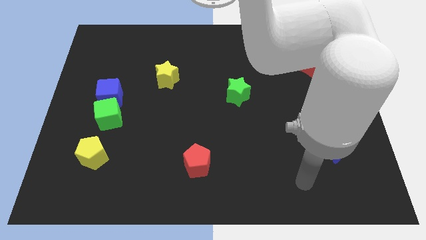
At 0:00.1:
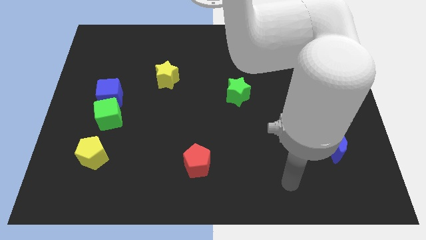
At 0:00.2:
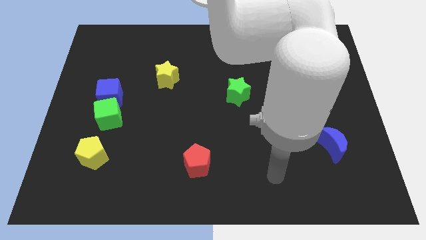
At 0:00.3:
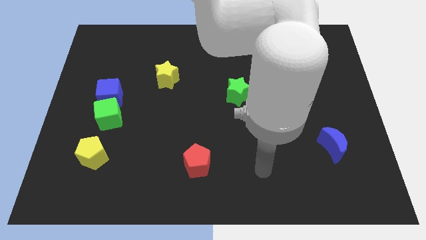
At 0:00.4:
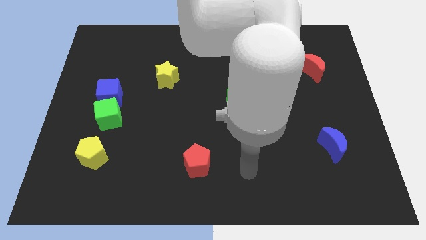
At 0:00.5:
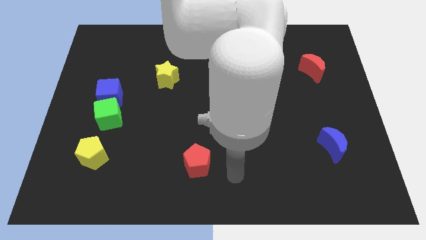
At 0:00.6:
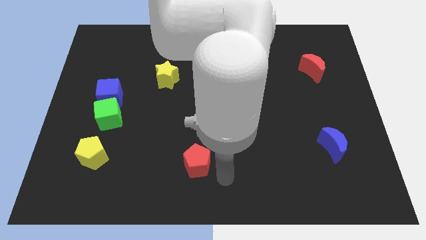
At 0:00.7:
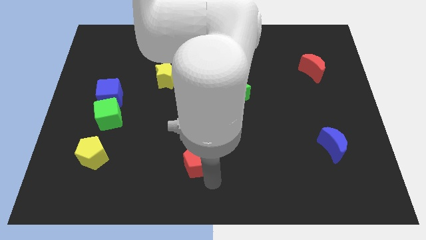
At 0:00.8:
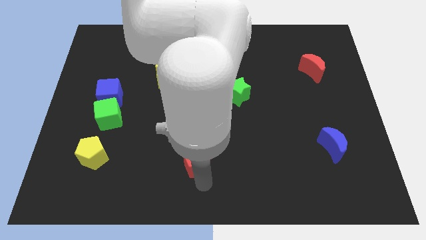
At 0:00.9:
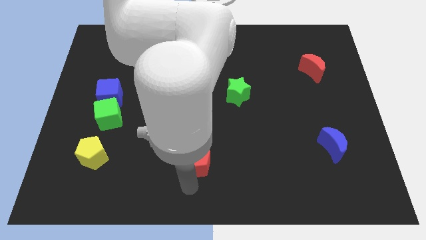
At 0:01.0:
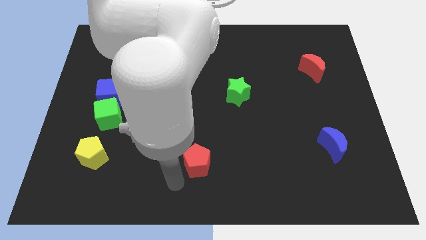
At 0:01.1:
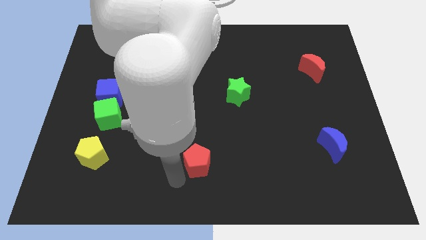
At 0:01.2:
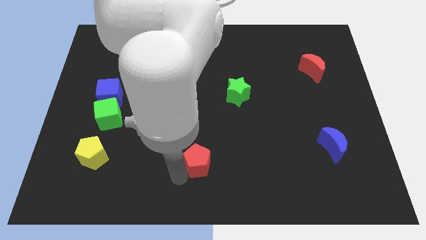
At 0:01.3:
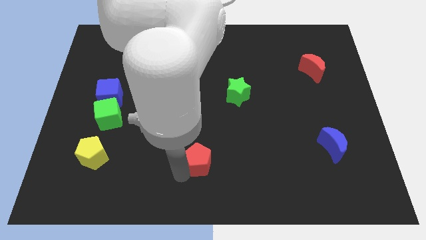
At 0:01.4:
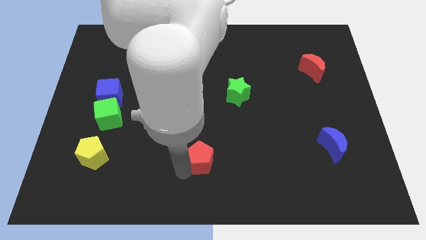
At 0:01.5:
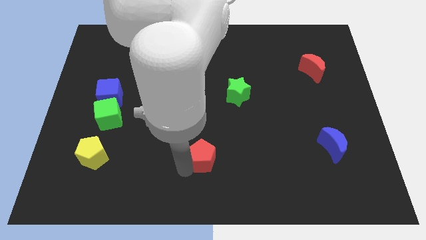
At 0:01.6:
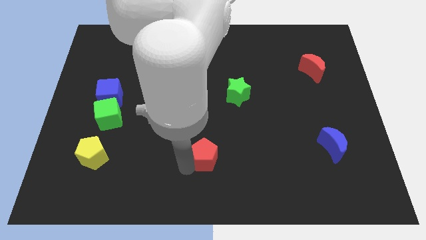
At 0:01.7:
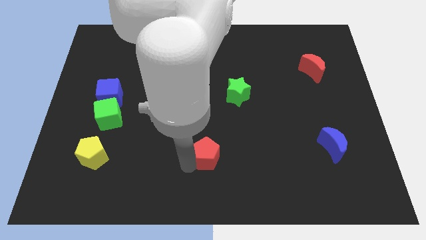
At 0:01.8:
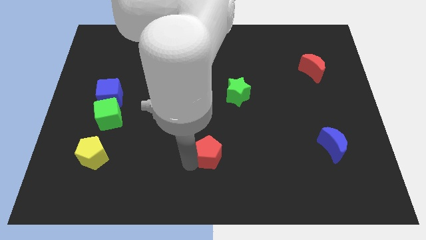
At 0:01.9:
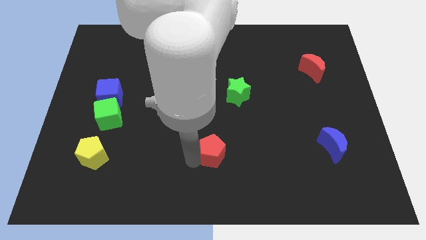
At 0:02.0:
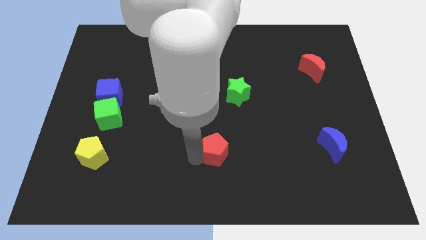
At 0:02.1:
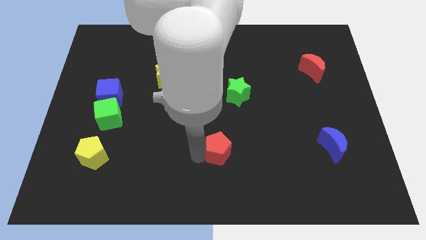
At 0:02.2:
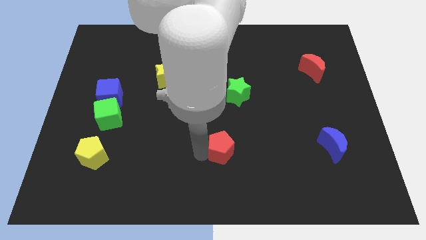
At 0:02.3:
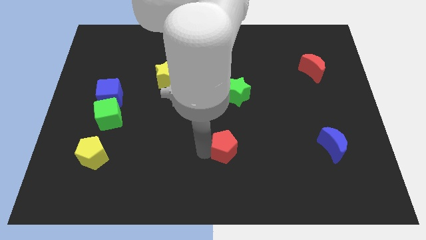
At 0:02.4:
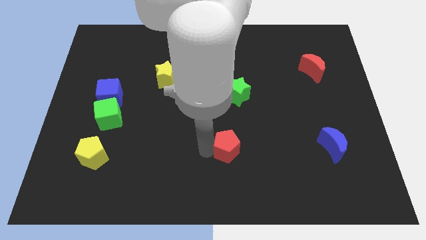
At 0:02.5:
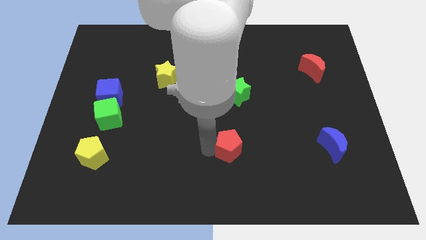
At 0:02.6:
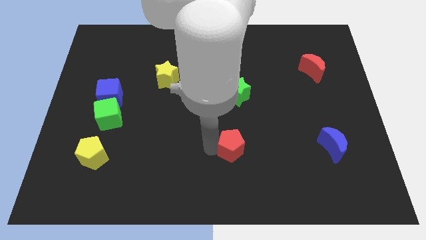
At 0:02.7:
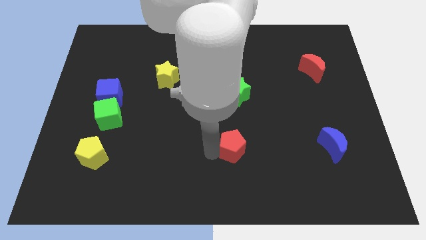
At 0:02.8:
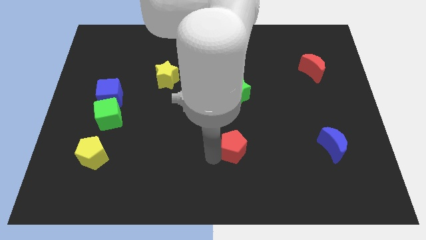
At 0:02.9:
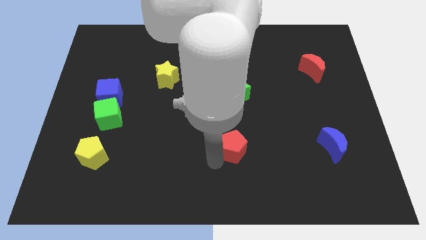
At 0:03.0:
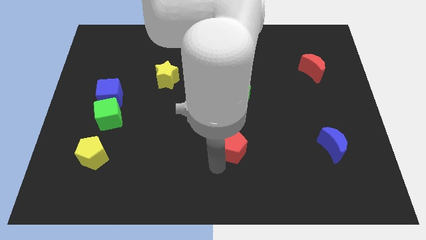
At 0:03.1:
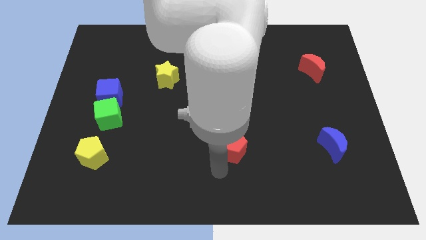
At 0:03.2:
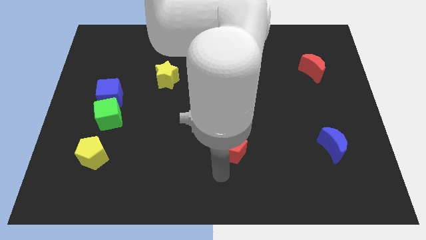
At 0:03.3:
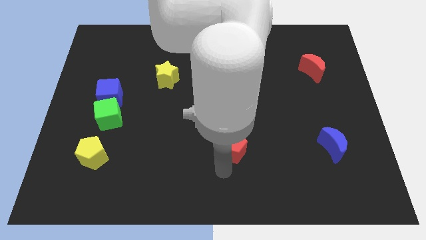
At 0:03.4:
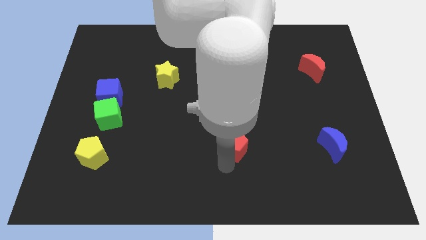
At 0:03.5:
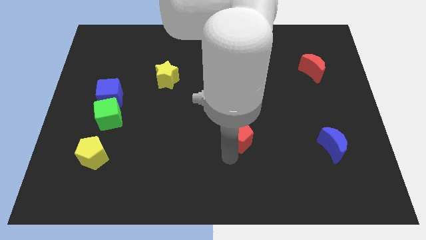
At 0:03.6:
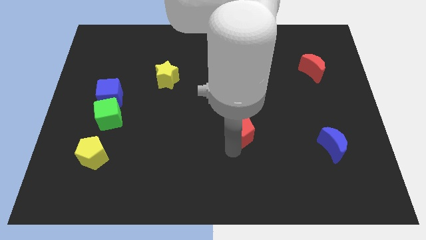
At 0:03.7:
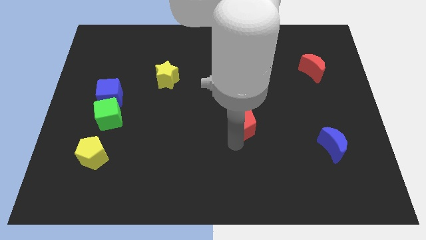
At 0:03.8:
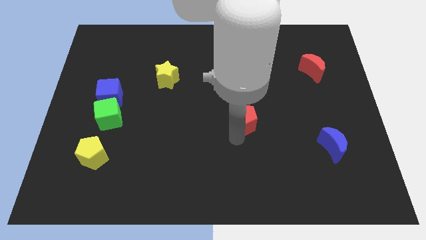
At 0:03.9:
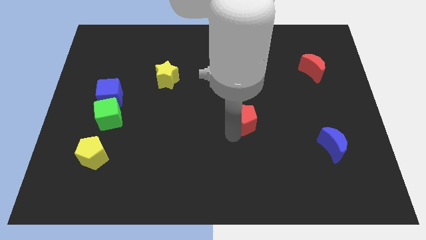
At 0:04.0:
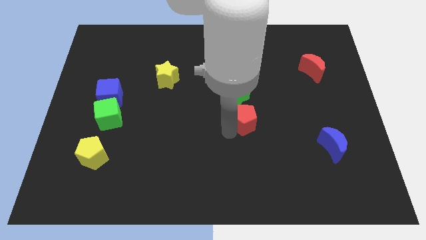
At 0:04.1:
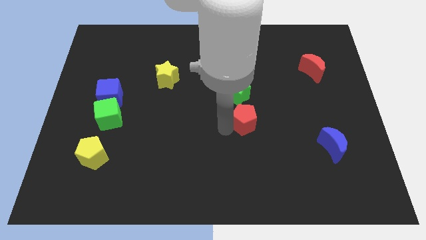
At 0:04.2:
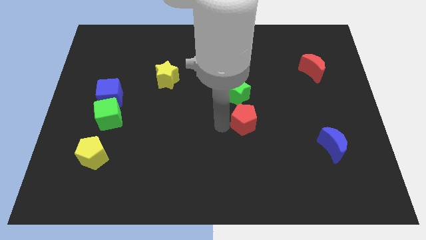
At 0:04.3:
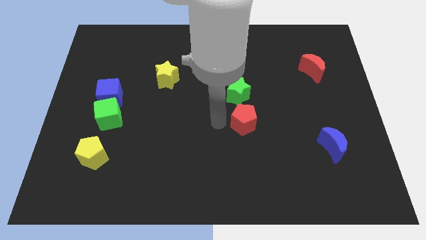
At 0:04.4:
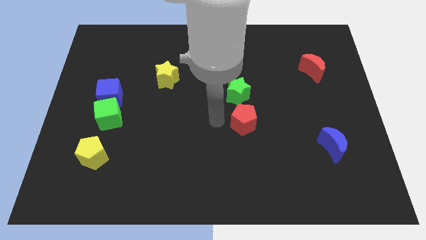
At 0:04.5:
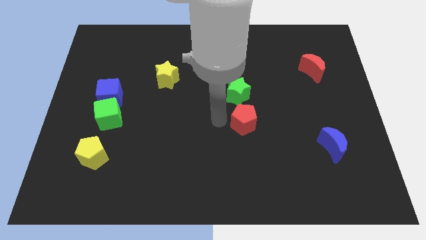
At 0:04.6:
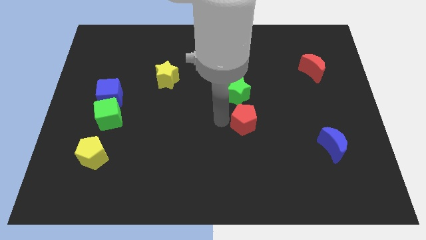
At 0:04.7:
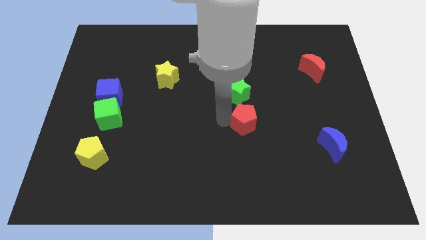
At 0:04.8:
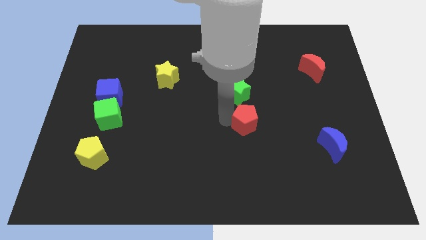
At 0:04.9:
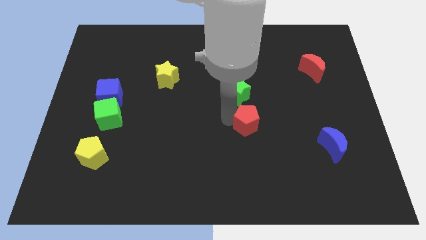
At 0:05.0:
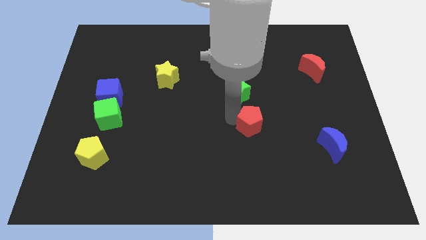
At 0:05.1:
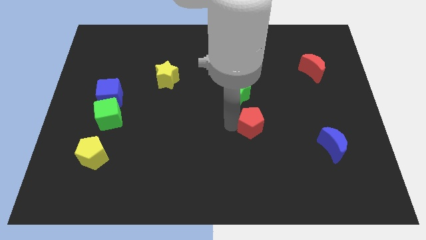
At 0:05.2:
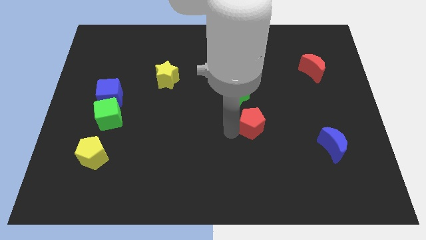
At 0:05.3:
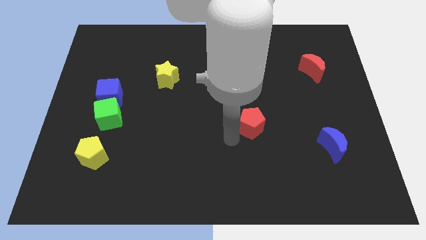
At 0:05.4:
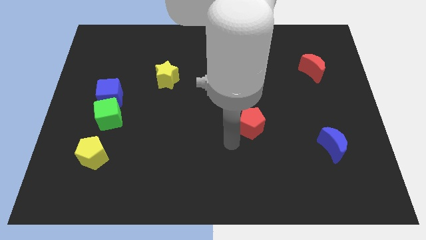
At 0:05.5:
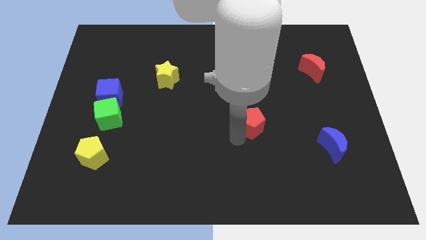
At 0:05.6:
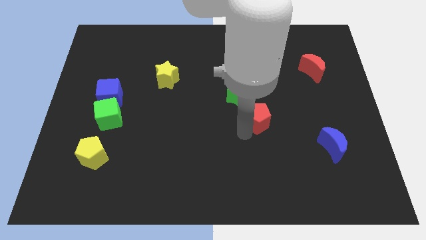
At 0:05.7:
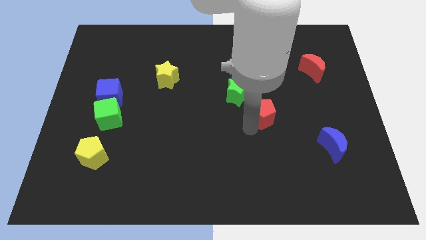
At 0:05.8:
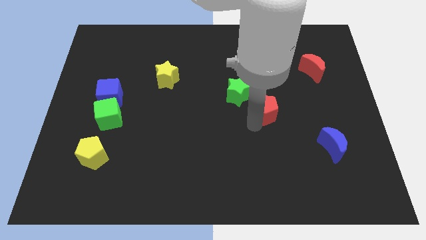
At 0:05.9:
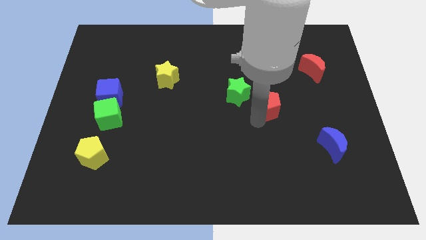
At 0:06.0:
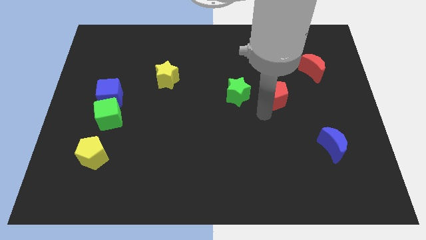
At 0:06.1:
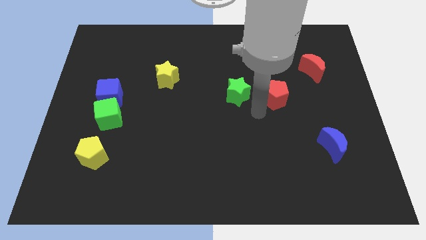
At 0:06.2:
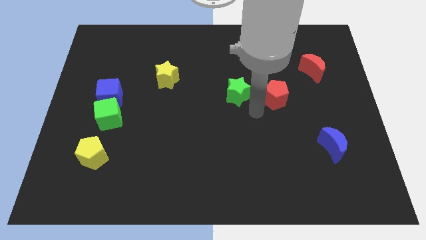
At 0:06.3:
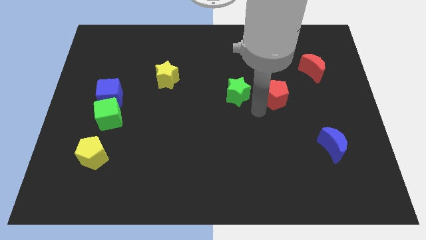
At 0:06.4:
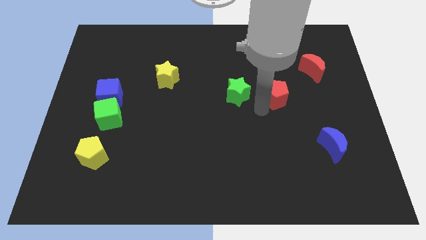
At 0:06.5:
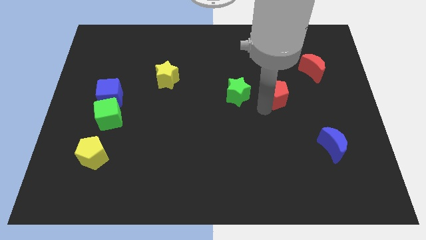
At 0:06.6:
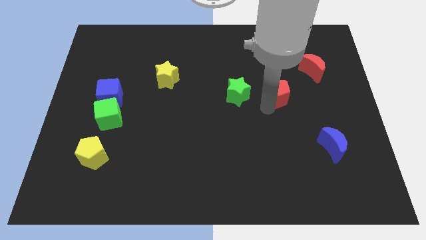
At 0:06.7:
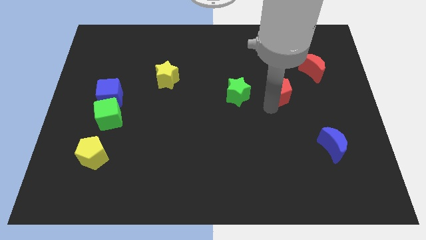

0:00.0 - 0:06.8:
put the red pentagon diagonally down and to the left of the red moon
